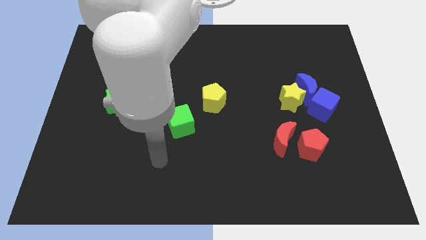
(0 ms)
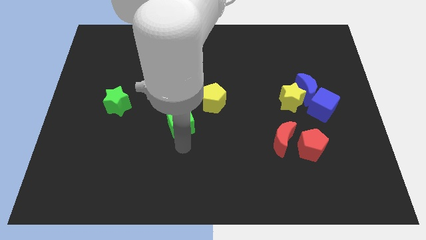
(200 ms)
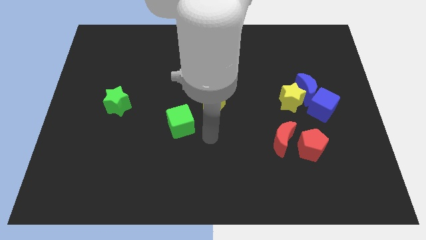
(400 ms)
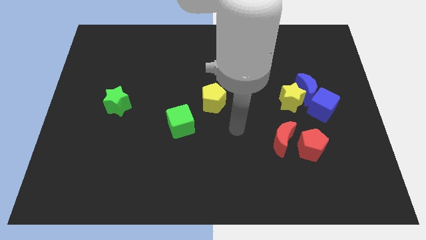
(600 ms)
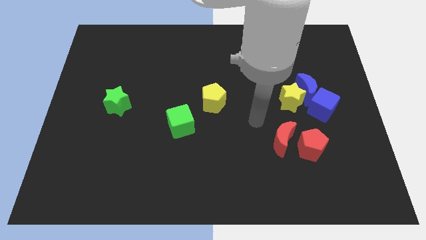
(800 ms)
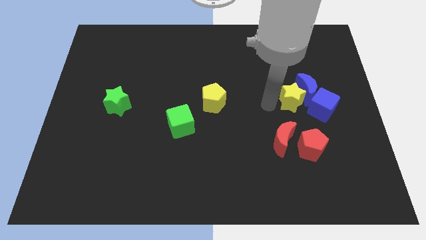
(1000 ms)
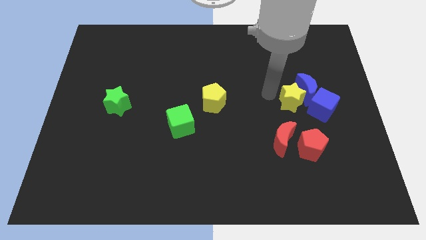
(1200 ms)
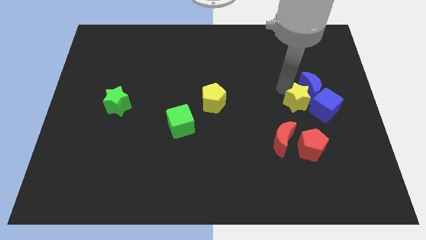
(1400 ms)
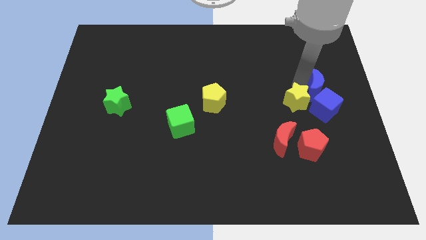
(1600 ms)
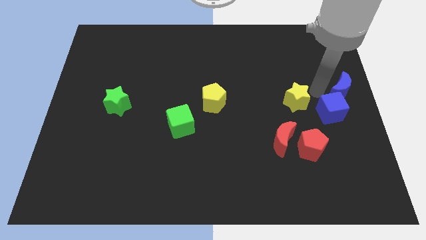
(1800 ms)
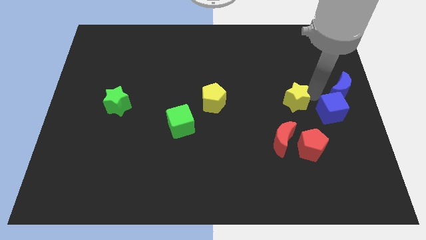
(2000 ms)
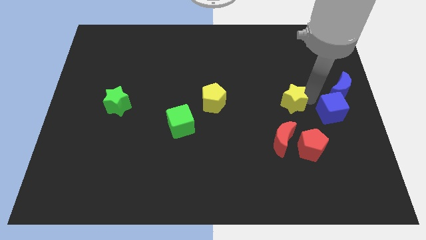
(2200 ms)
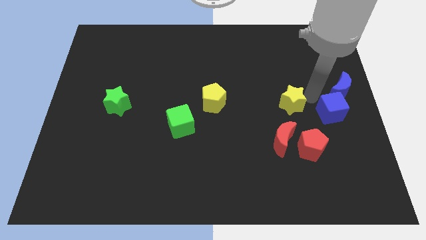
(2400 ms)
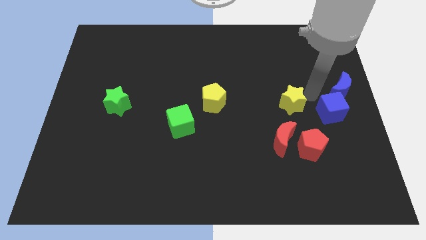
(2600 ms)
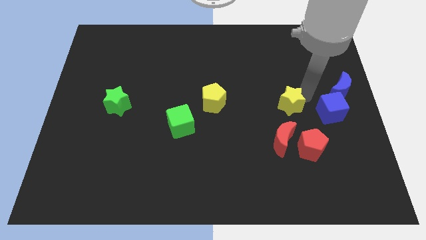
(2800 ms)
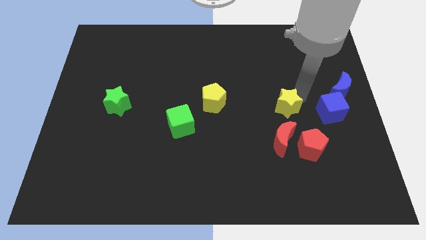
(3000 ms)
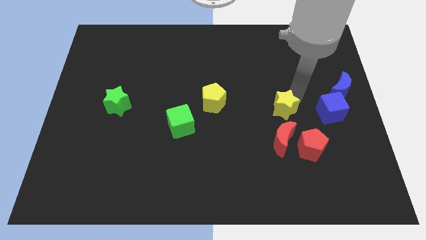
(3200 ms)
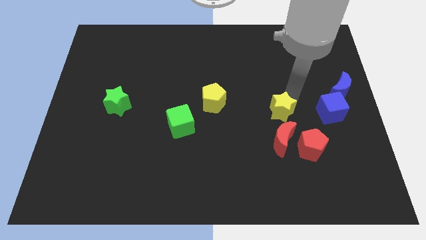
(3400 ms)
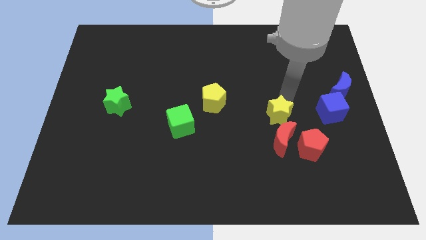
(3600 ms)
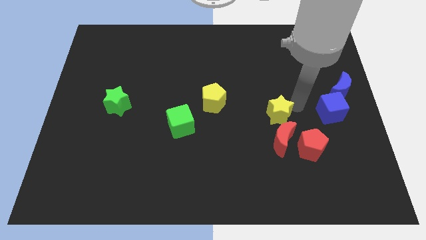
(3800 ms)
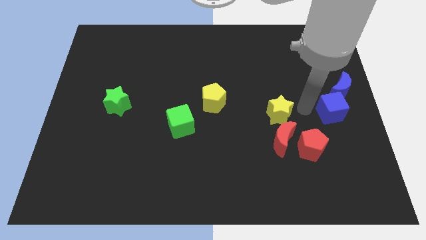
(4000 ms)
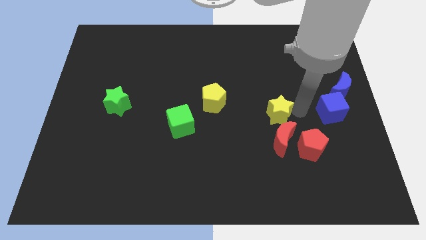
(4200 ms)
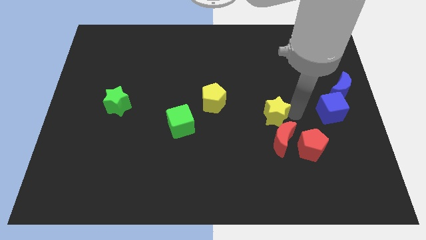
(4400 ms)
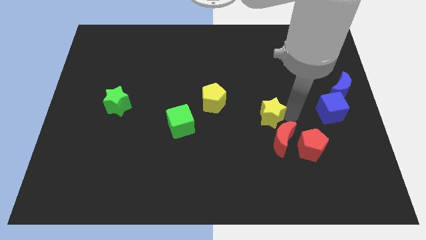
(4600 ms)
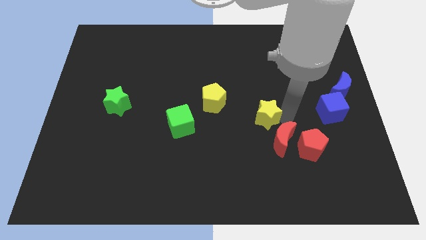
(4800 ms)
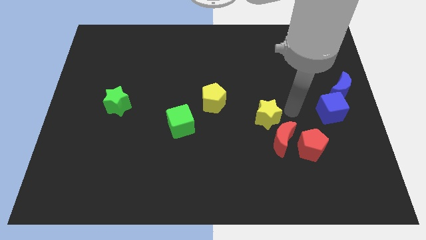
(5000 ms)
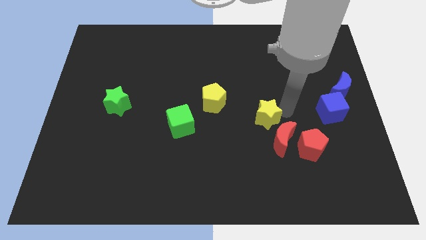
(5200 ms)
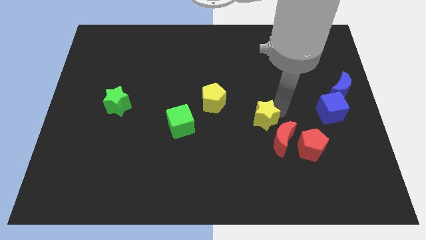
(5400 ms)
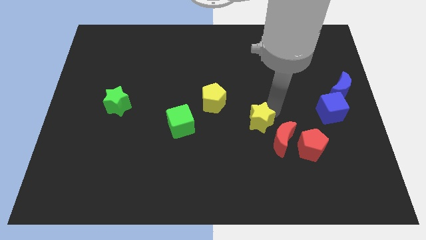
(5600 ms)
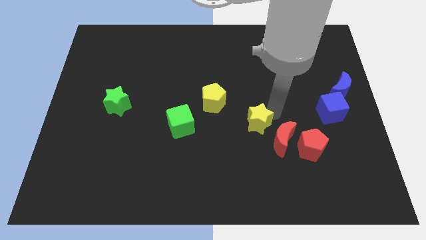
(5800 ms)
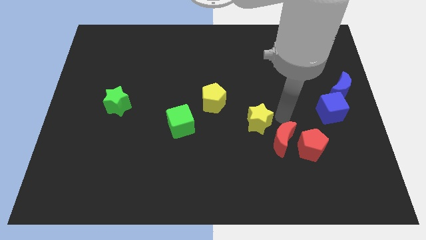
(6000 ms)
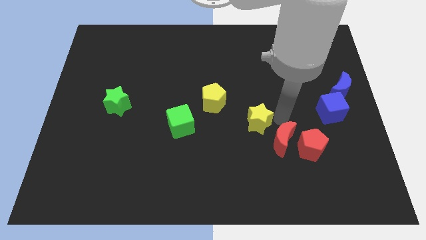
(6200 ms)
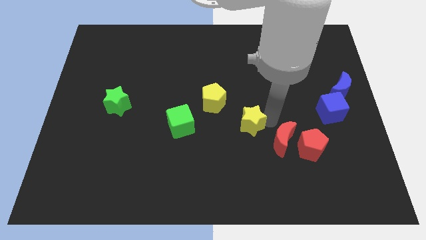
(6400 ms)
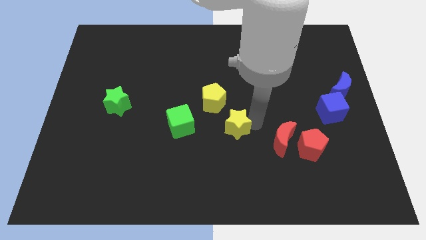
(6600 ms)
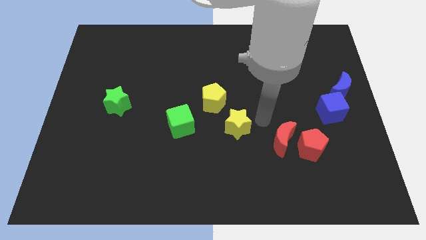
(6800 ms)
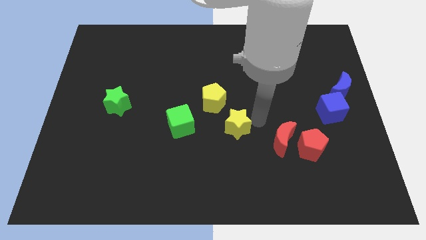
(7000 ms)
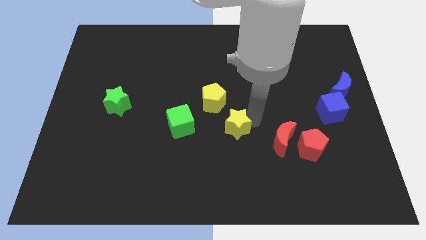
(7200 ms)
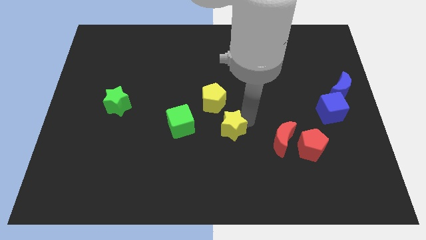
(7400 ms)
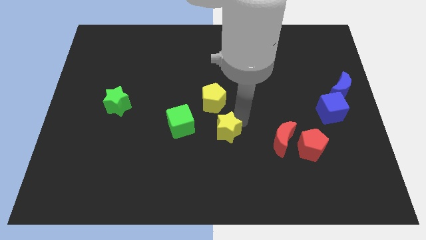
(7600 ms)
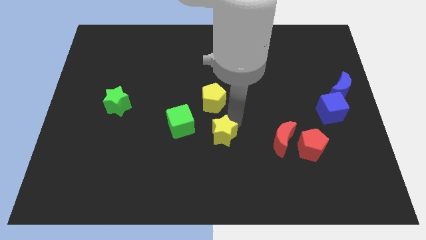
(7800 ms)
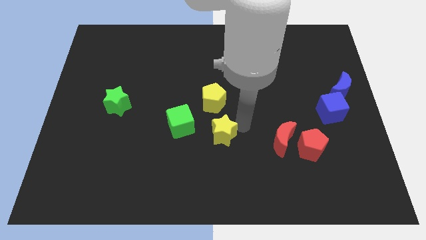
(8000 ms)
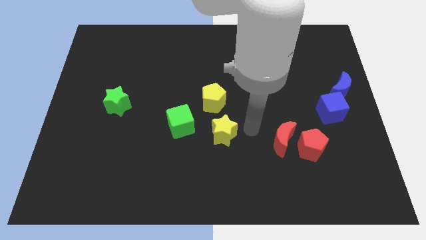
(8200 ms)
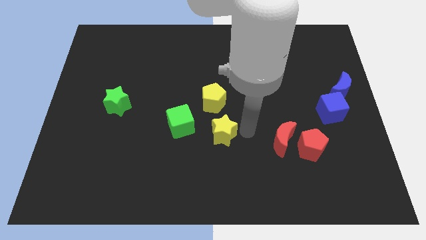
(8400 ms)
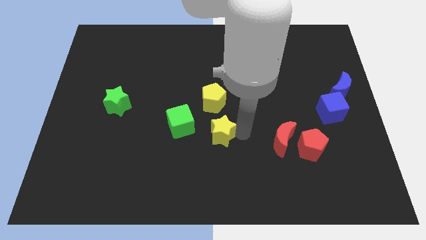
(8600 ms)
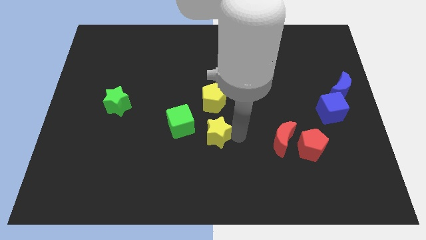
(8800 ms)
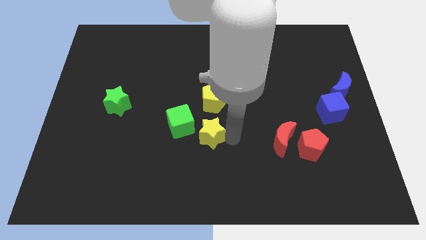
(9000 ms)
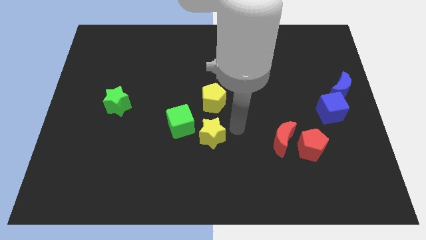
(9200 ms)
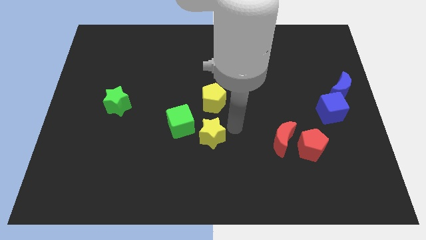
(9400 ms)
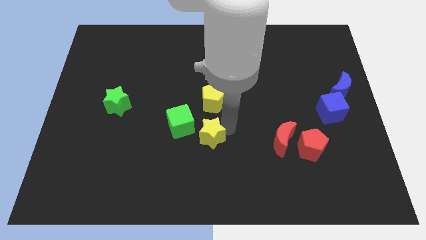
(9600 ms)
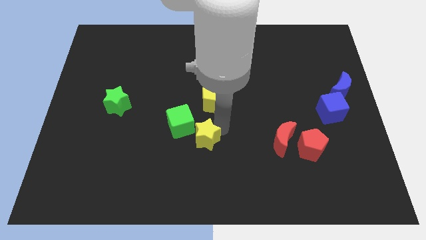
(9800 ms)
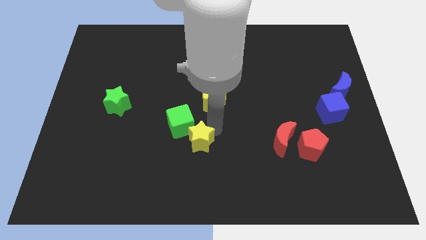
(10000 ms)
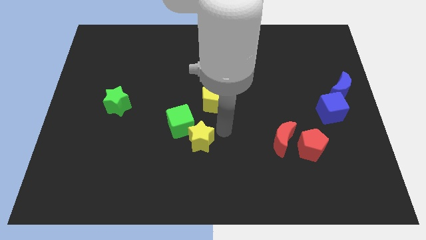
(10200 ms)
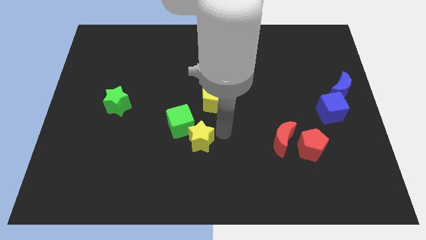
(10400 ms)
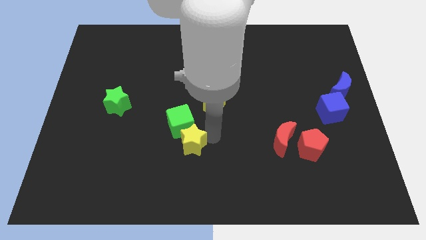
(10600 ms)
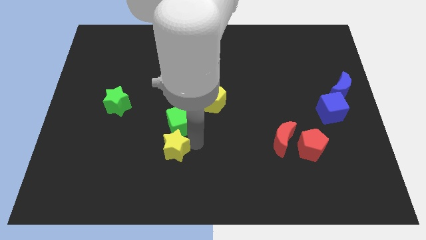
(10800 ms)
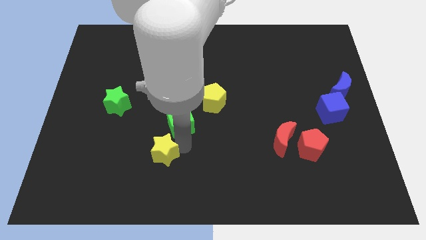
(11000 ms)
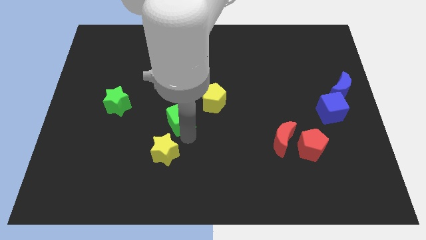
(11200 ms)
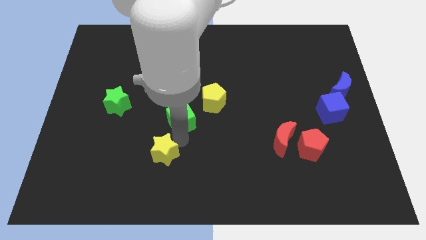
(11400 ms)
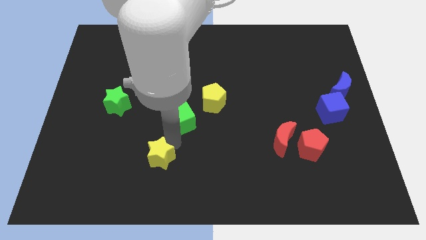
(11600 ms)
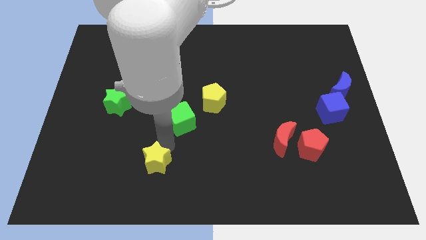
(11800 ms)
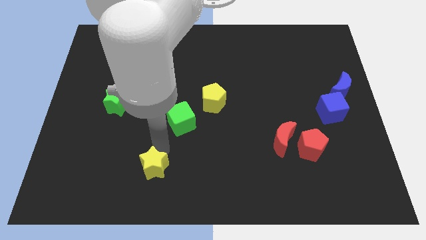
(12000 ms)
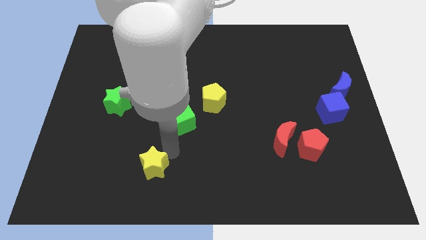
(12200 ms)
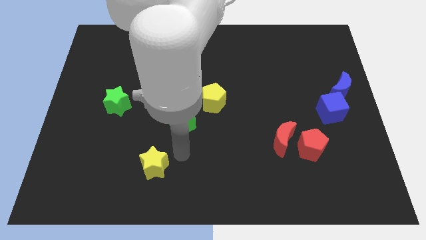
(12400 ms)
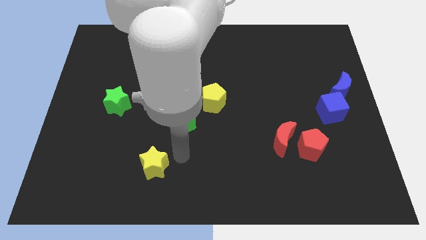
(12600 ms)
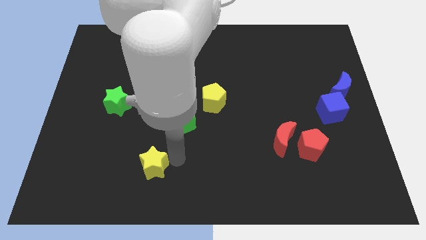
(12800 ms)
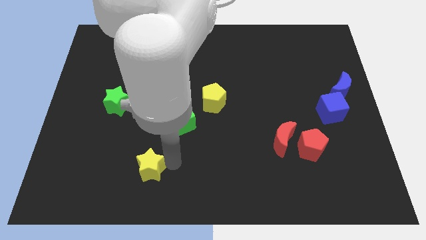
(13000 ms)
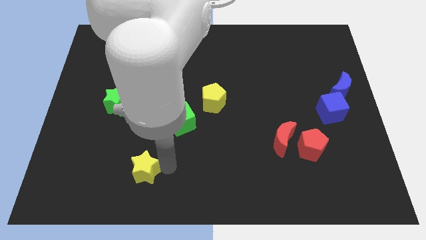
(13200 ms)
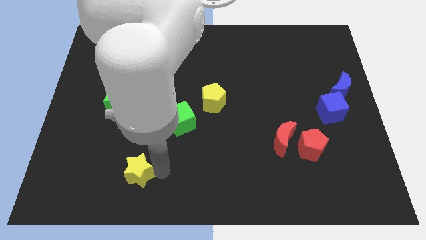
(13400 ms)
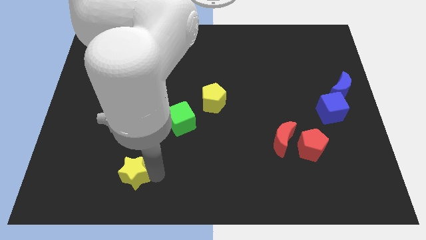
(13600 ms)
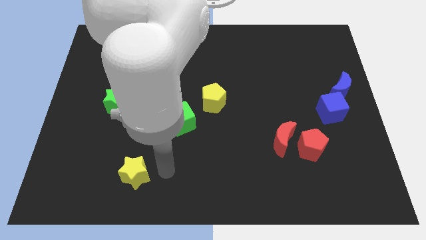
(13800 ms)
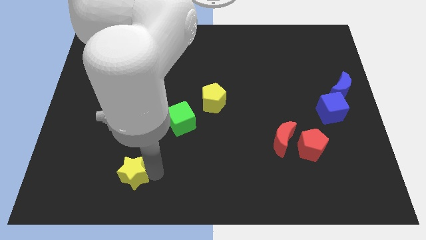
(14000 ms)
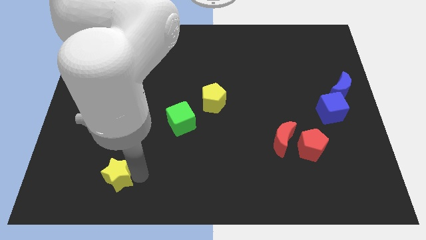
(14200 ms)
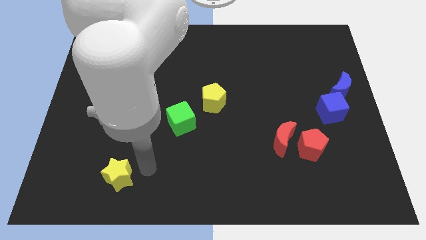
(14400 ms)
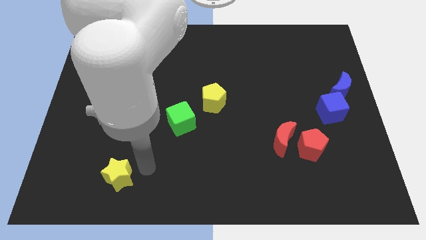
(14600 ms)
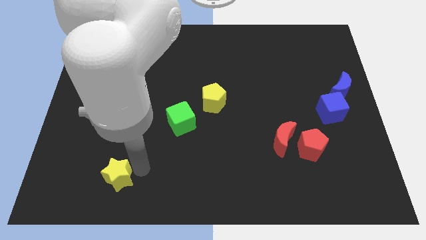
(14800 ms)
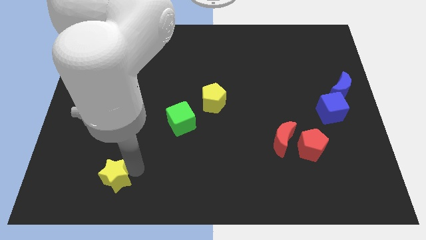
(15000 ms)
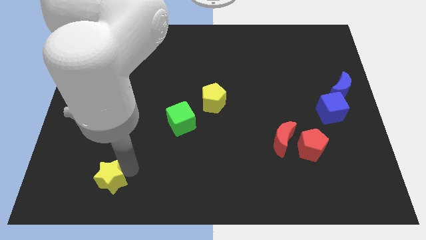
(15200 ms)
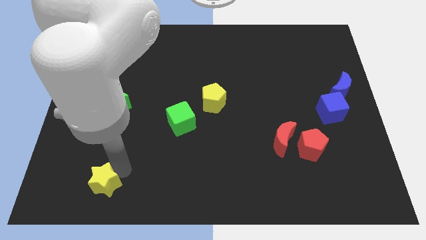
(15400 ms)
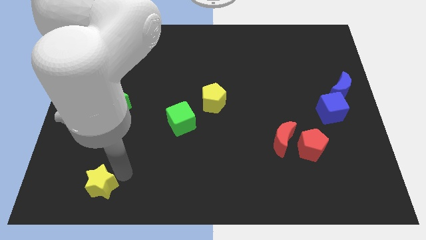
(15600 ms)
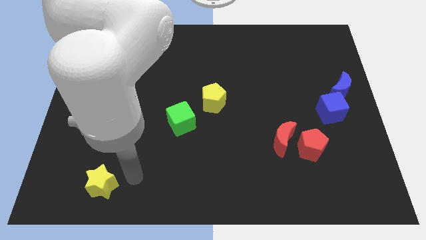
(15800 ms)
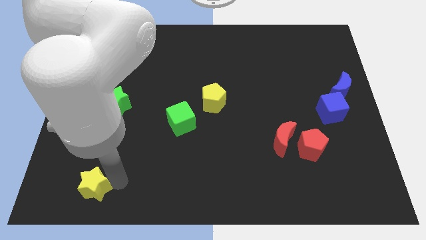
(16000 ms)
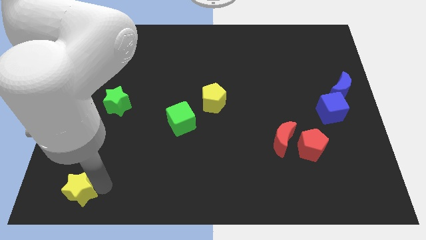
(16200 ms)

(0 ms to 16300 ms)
move the yellow star to the lower left corner
